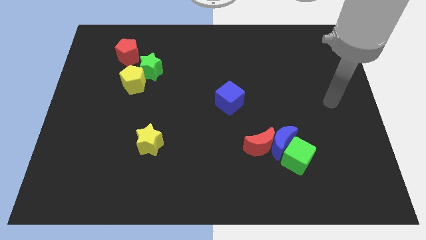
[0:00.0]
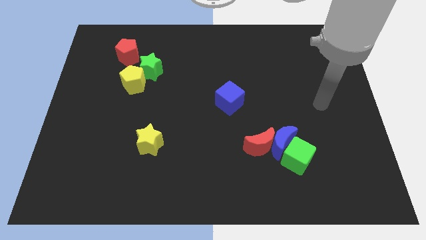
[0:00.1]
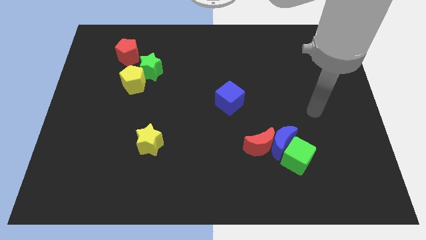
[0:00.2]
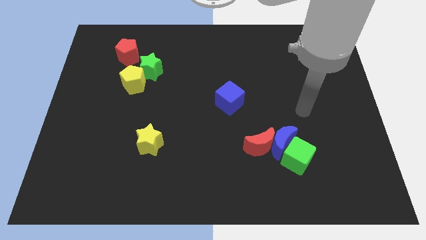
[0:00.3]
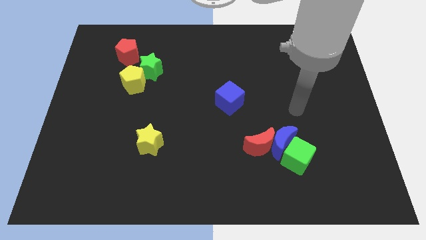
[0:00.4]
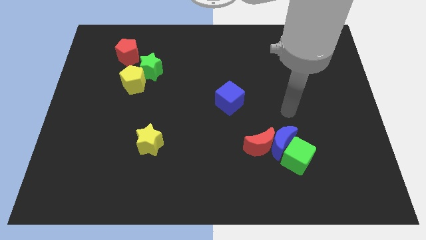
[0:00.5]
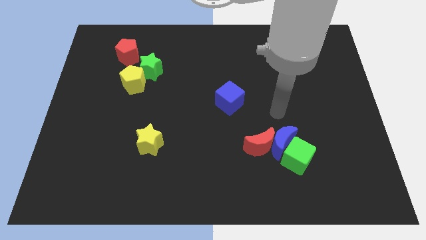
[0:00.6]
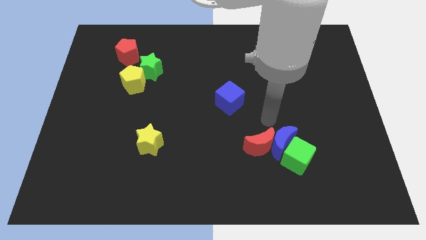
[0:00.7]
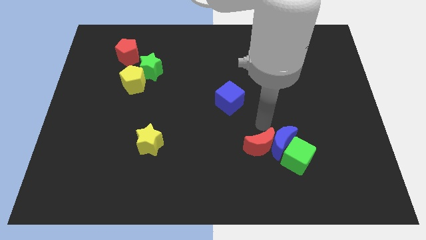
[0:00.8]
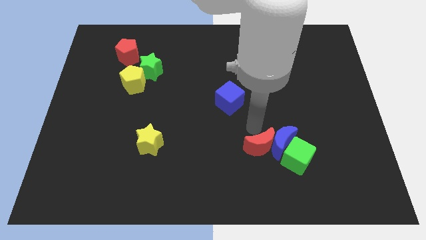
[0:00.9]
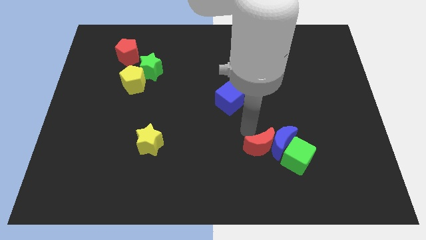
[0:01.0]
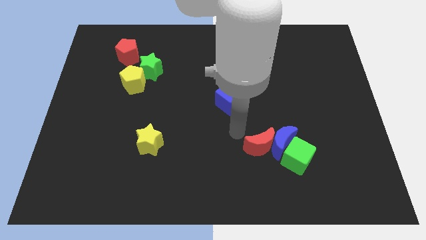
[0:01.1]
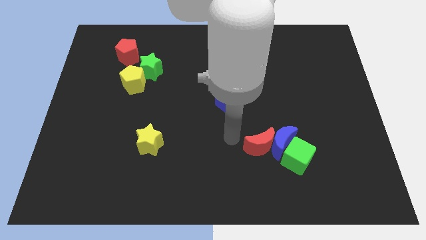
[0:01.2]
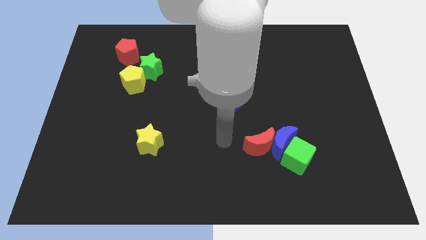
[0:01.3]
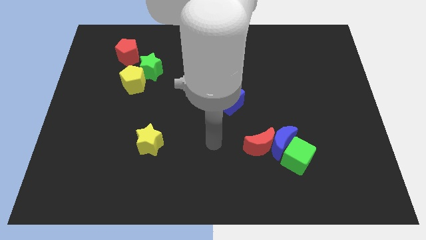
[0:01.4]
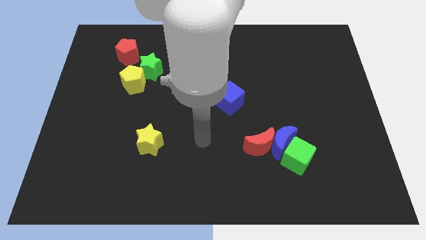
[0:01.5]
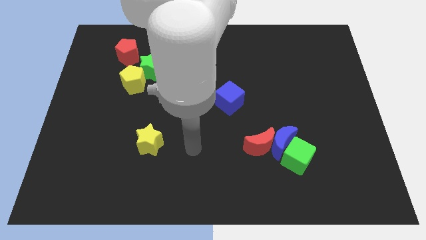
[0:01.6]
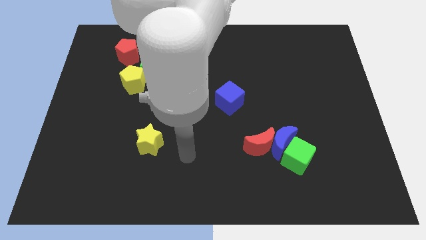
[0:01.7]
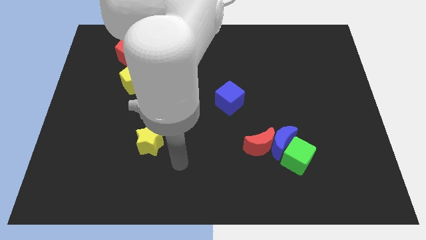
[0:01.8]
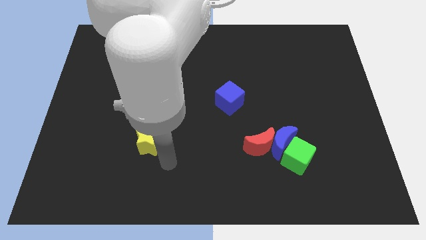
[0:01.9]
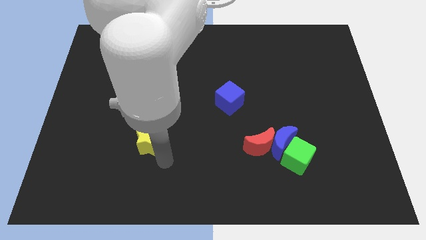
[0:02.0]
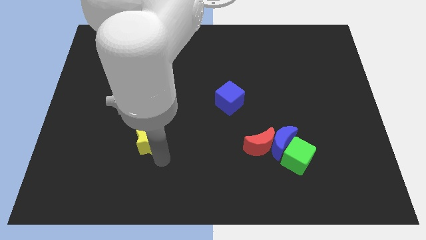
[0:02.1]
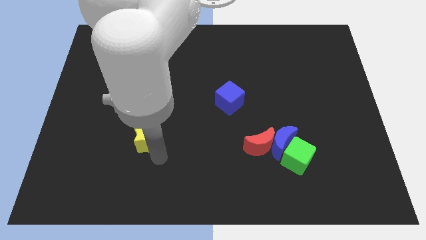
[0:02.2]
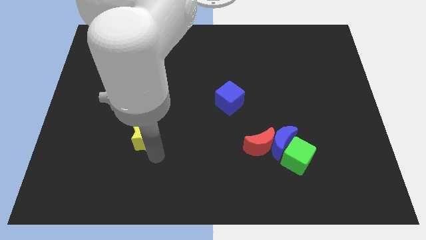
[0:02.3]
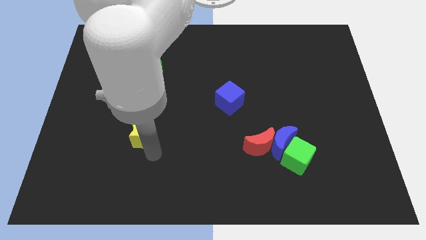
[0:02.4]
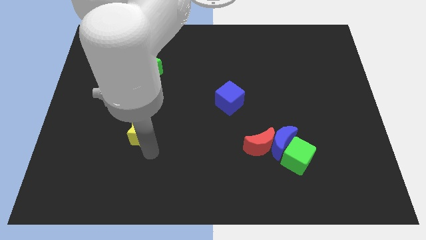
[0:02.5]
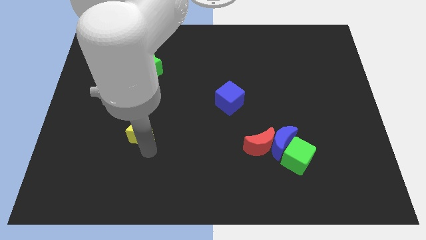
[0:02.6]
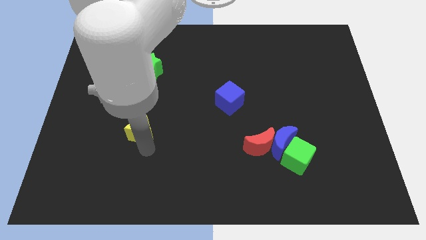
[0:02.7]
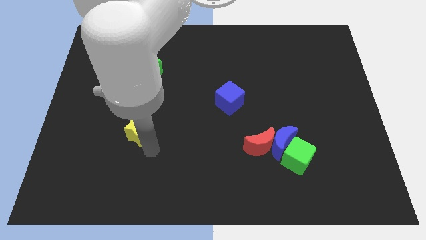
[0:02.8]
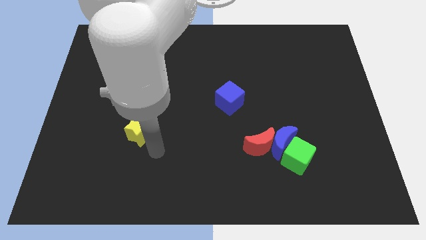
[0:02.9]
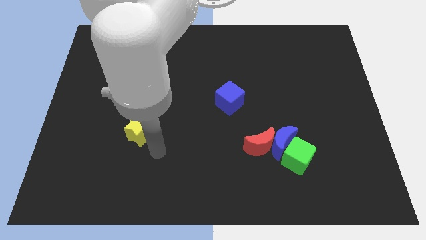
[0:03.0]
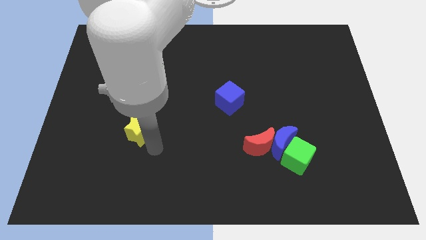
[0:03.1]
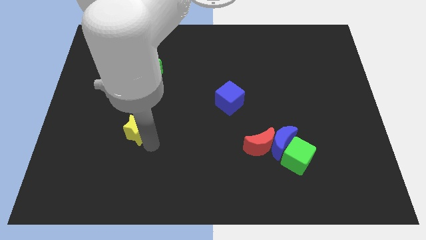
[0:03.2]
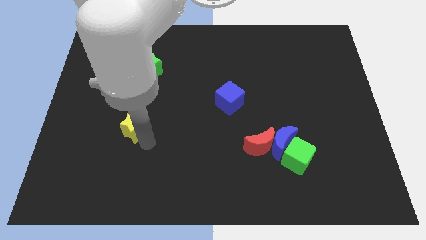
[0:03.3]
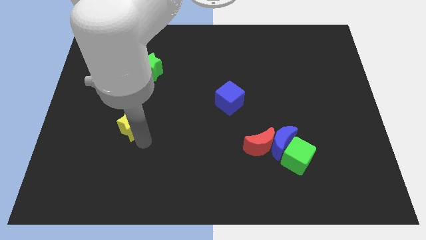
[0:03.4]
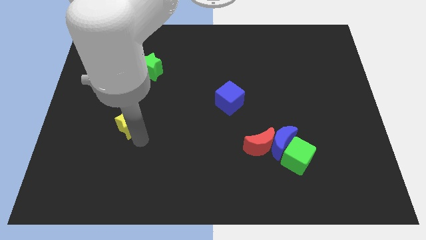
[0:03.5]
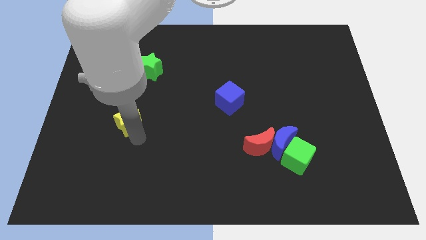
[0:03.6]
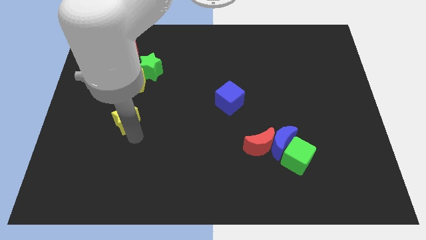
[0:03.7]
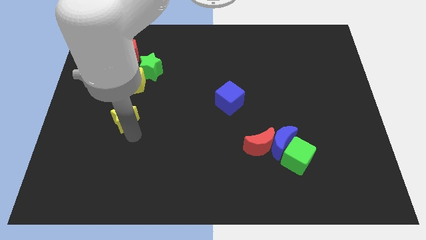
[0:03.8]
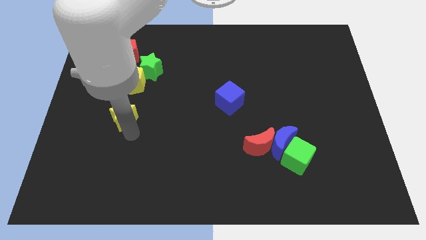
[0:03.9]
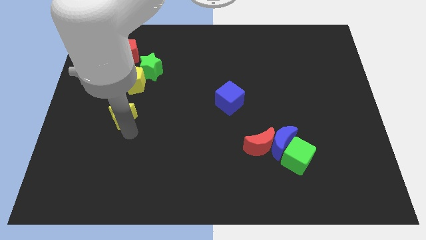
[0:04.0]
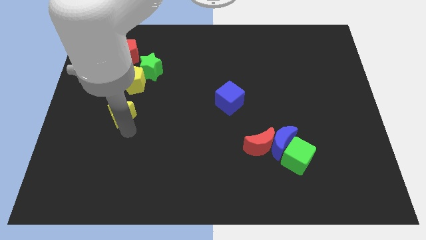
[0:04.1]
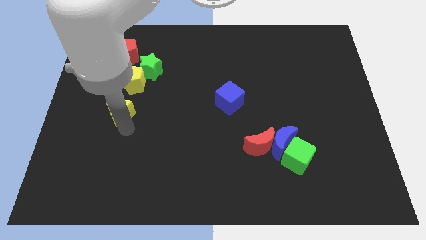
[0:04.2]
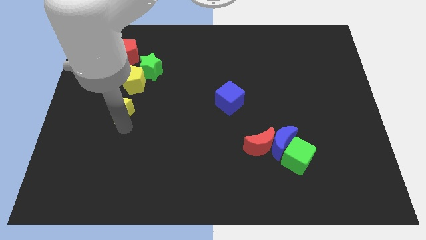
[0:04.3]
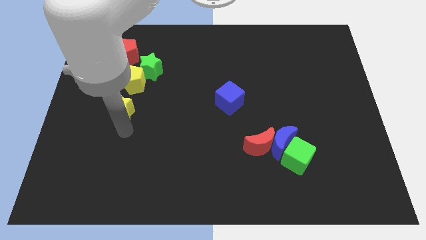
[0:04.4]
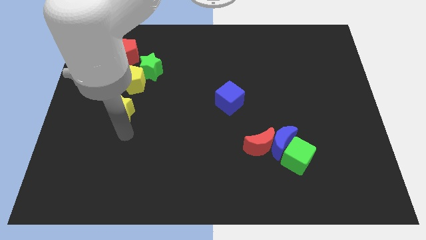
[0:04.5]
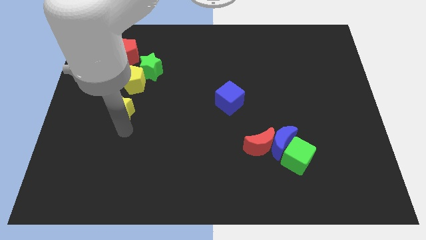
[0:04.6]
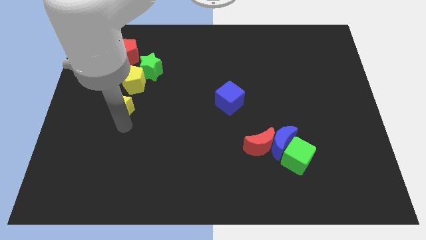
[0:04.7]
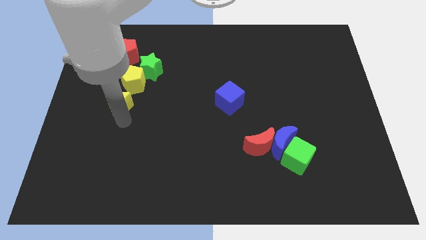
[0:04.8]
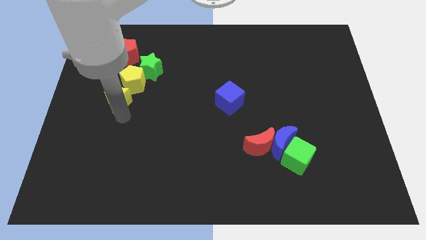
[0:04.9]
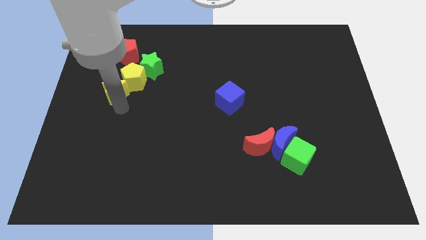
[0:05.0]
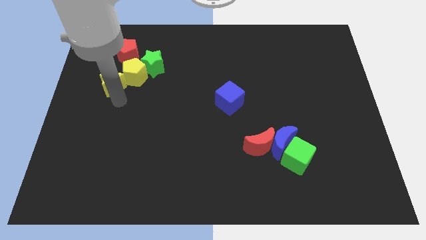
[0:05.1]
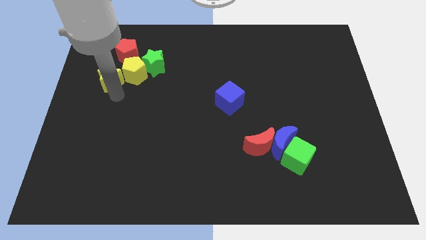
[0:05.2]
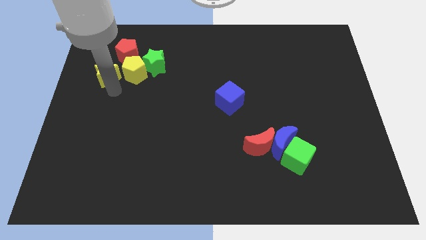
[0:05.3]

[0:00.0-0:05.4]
slide the yellow star just left of the green star

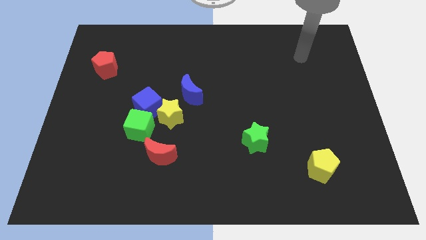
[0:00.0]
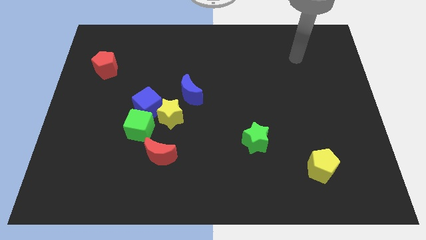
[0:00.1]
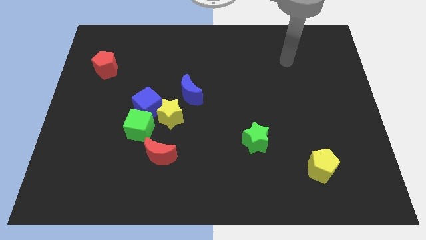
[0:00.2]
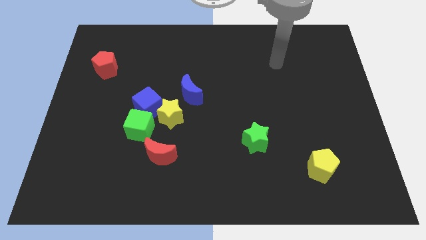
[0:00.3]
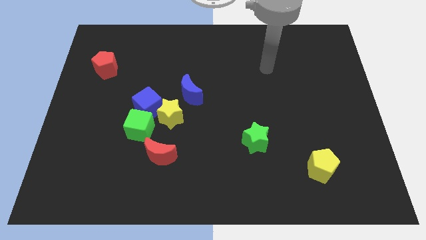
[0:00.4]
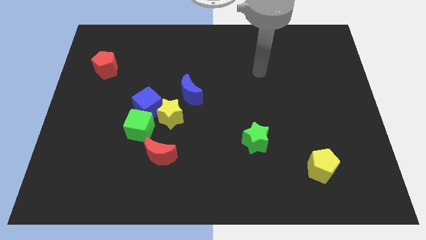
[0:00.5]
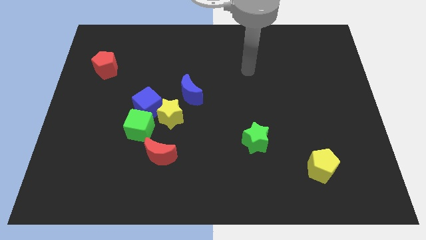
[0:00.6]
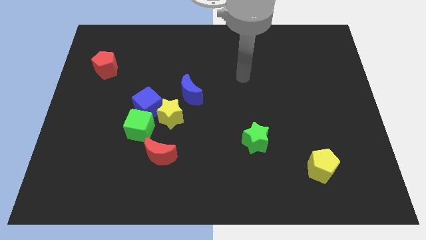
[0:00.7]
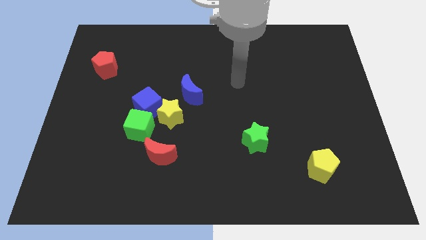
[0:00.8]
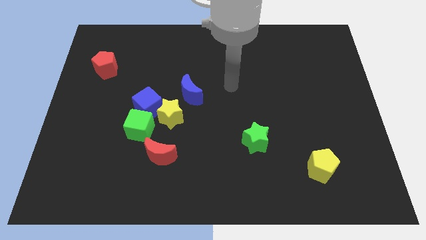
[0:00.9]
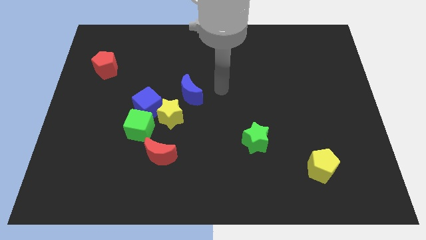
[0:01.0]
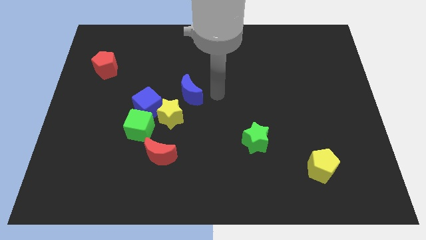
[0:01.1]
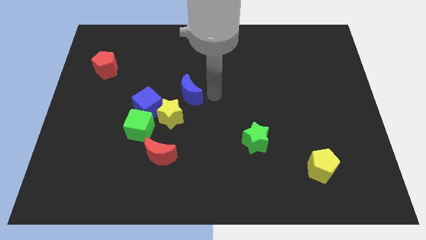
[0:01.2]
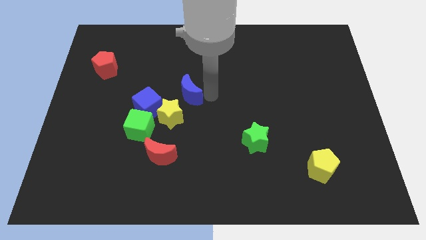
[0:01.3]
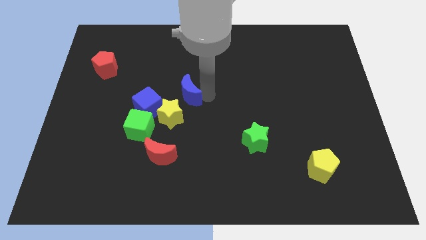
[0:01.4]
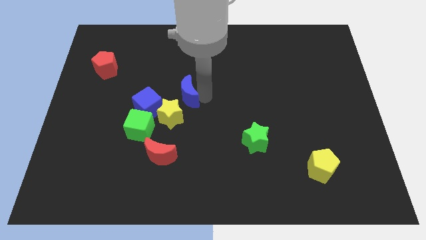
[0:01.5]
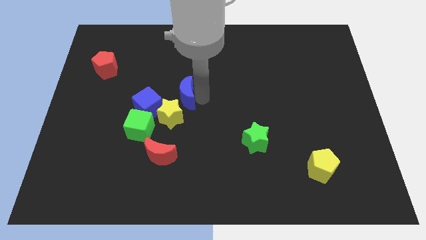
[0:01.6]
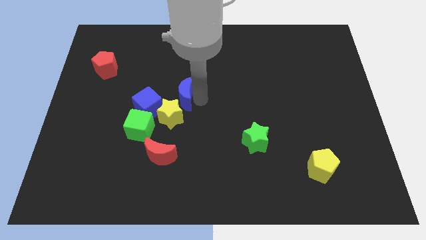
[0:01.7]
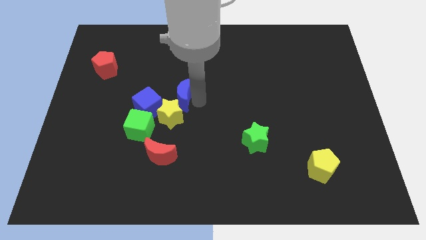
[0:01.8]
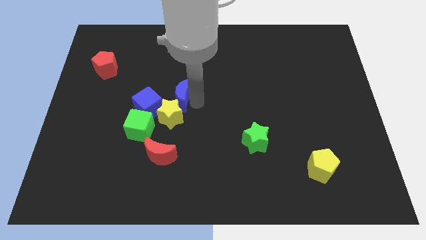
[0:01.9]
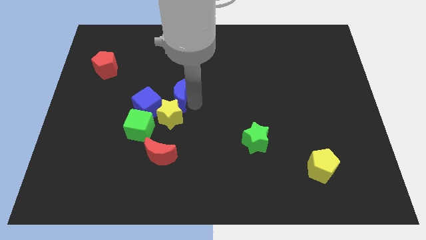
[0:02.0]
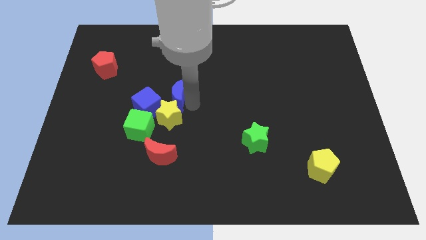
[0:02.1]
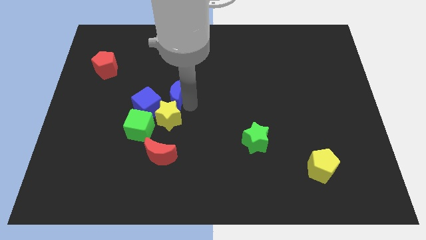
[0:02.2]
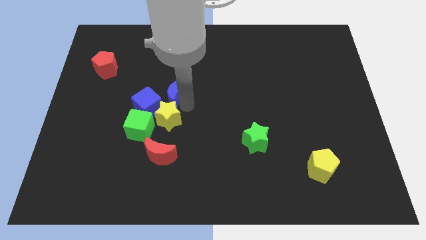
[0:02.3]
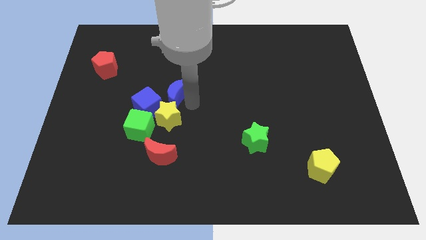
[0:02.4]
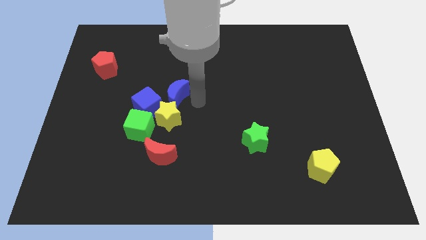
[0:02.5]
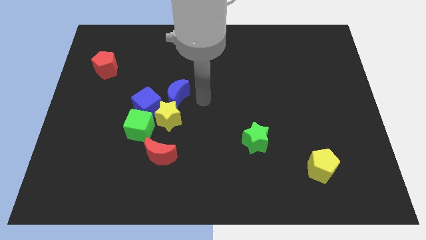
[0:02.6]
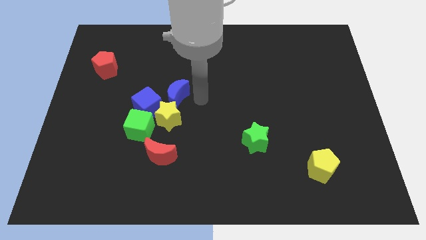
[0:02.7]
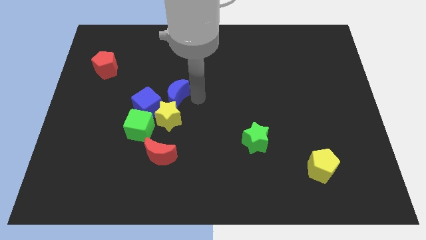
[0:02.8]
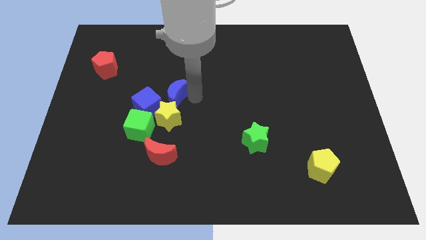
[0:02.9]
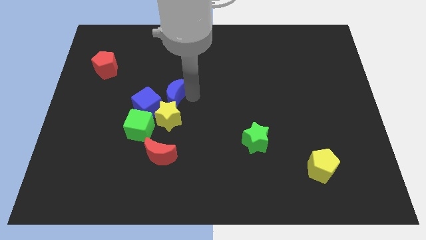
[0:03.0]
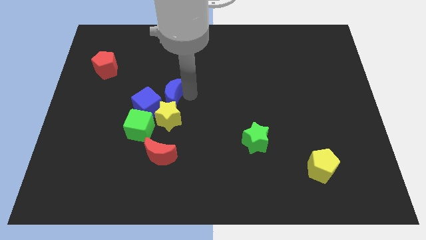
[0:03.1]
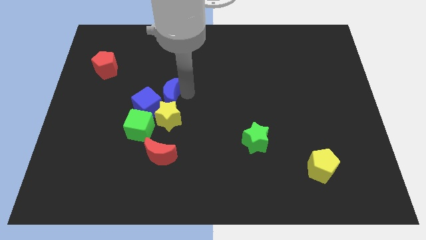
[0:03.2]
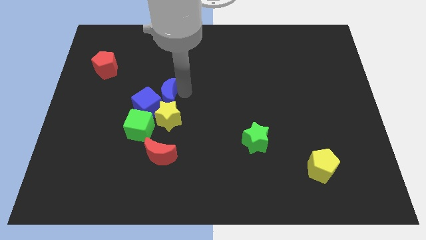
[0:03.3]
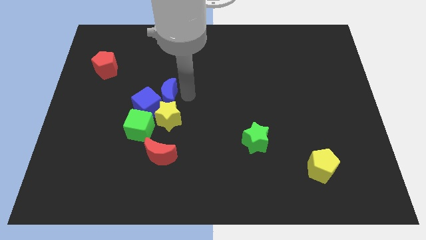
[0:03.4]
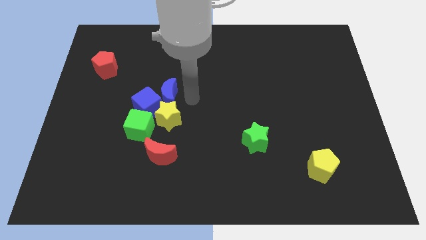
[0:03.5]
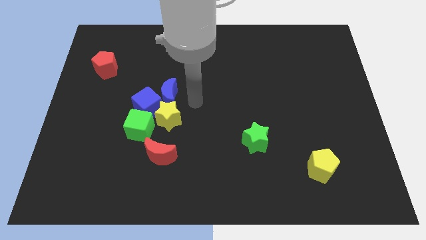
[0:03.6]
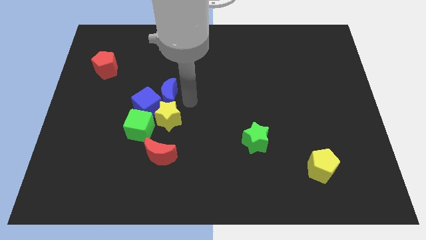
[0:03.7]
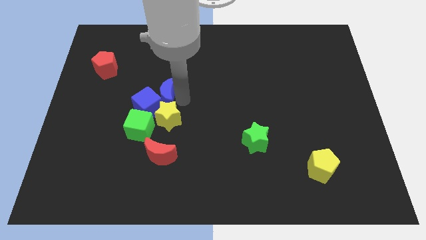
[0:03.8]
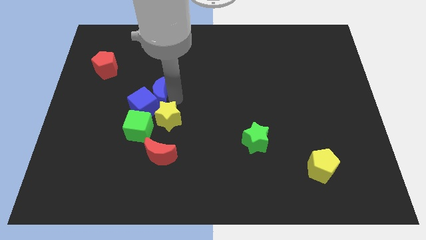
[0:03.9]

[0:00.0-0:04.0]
push the blue moon above the green cube
